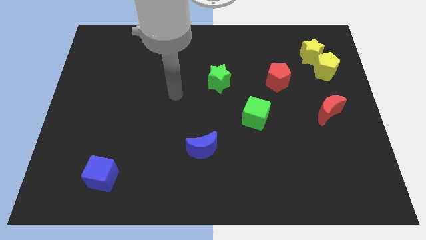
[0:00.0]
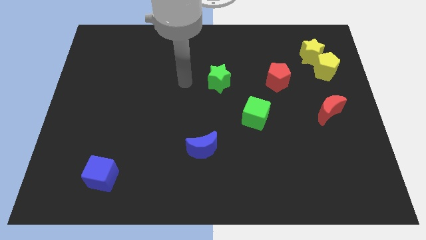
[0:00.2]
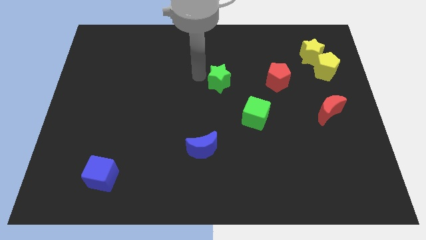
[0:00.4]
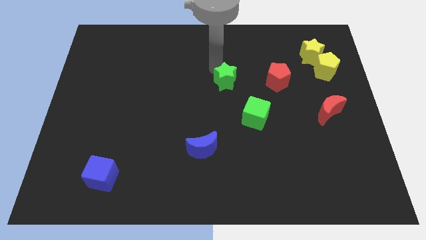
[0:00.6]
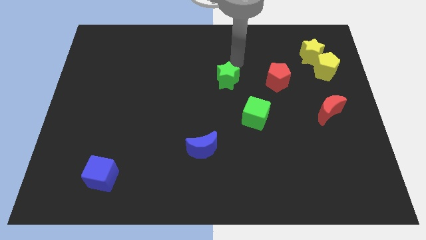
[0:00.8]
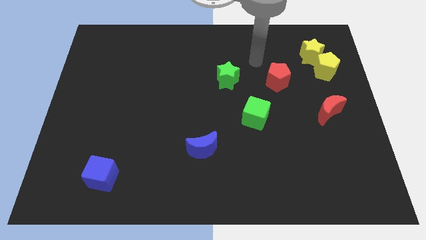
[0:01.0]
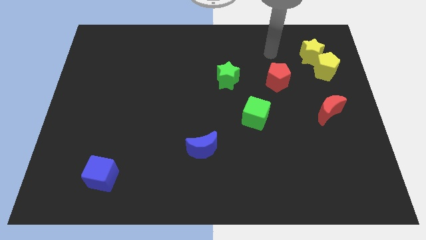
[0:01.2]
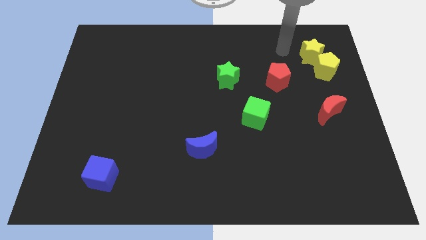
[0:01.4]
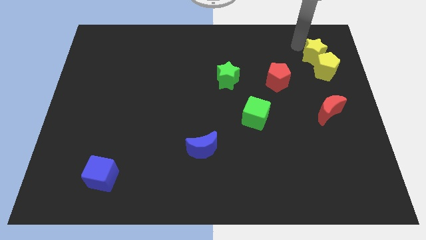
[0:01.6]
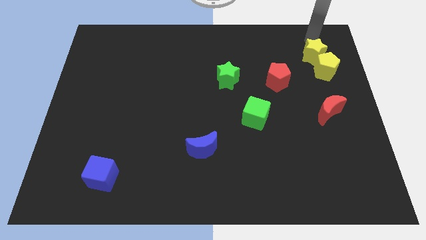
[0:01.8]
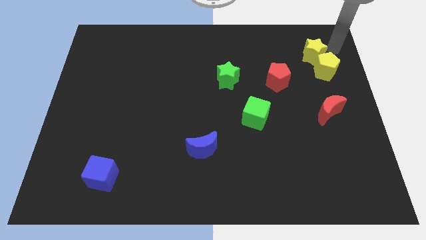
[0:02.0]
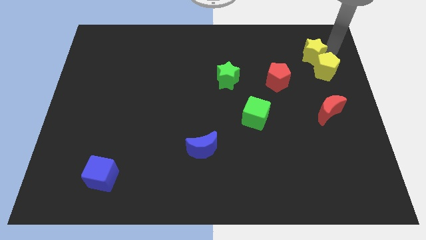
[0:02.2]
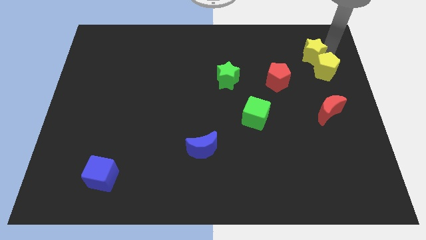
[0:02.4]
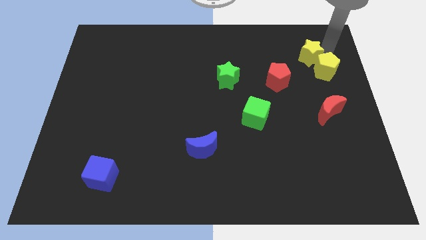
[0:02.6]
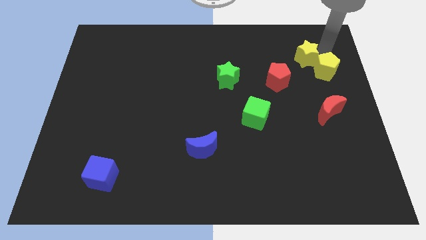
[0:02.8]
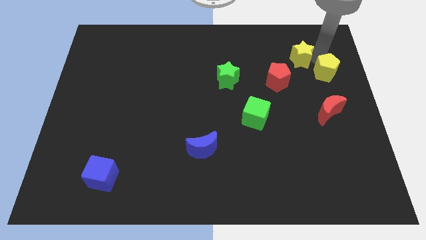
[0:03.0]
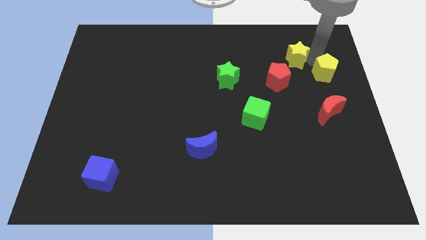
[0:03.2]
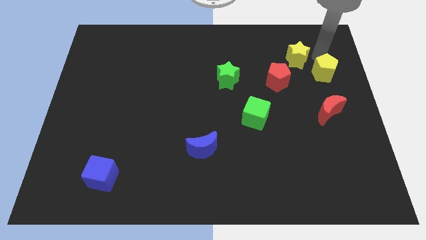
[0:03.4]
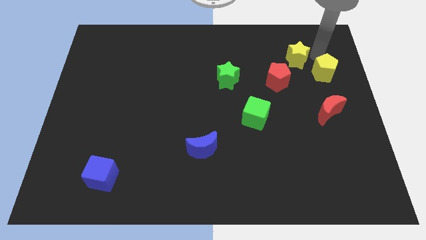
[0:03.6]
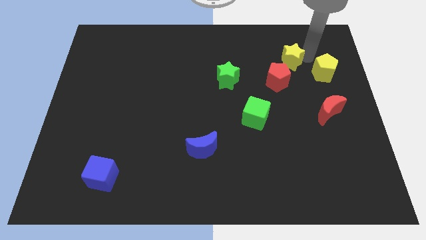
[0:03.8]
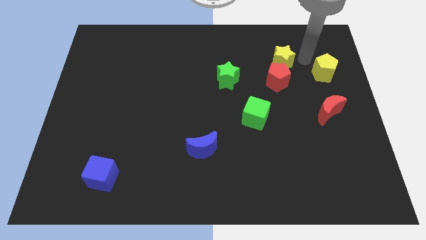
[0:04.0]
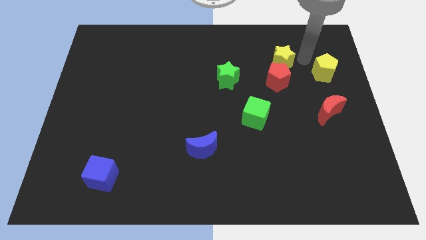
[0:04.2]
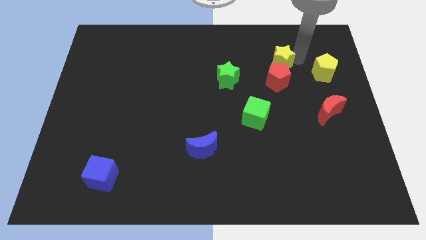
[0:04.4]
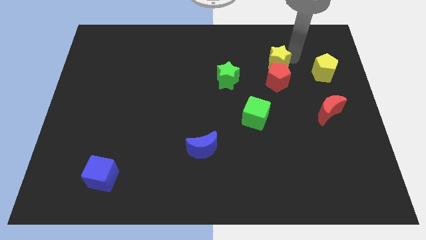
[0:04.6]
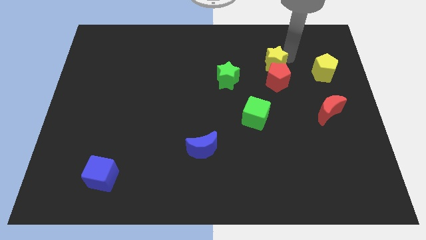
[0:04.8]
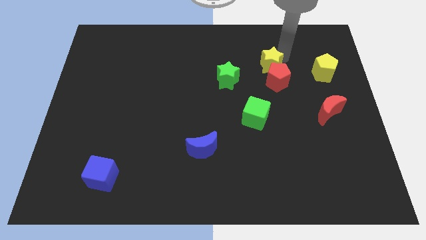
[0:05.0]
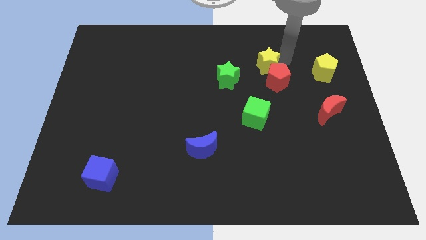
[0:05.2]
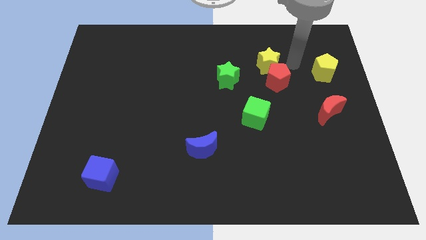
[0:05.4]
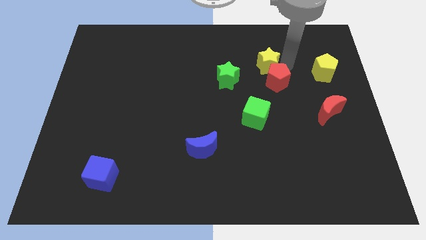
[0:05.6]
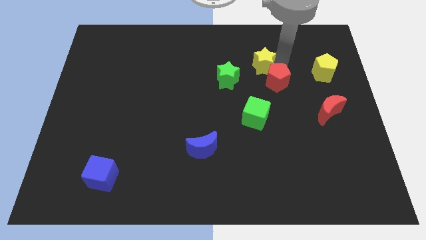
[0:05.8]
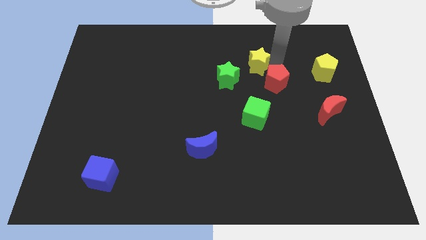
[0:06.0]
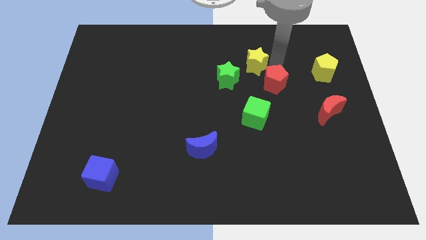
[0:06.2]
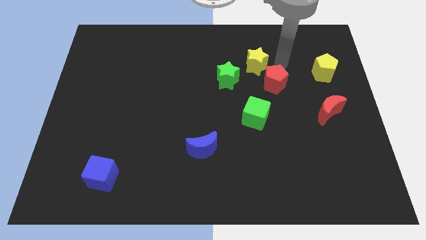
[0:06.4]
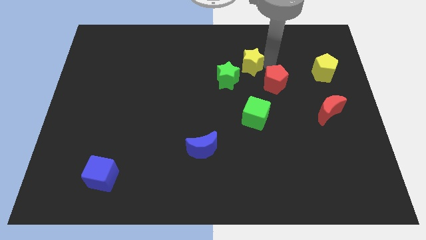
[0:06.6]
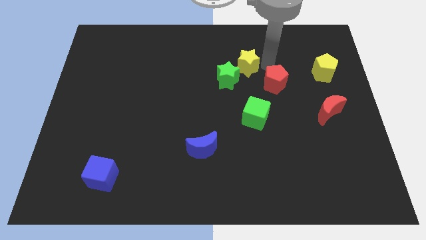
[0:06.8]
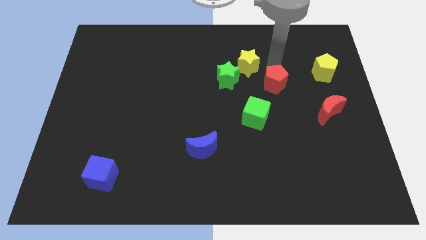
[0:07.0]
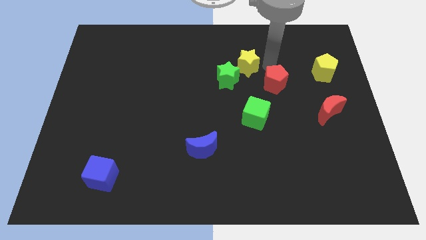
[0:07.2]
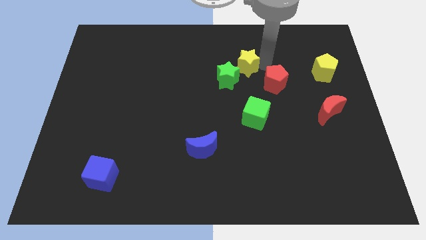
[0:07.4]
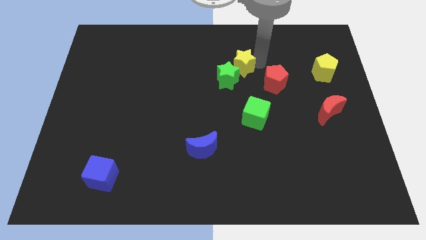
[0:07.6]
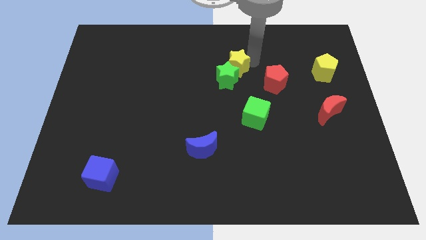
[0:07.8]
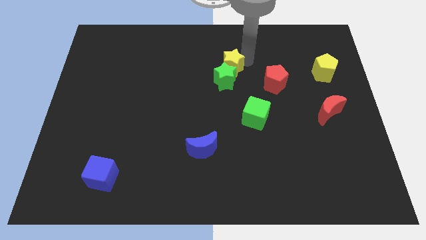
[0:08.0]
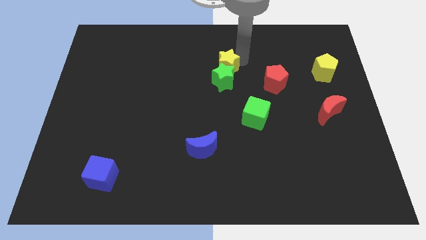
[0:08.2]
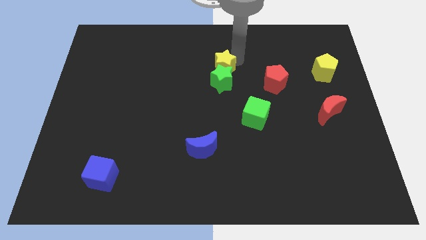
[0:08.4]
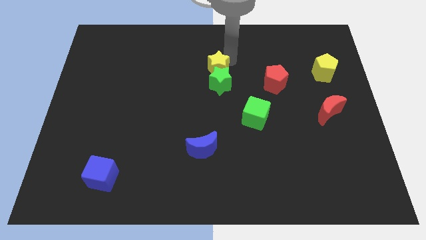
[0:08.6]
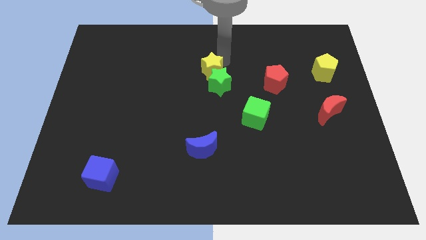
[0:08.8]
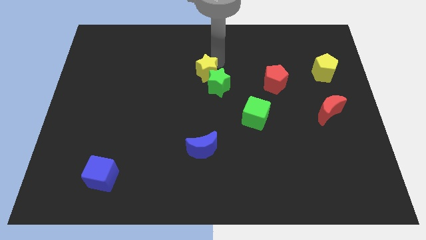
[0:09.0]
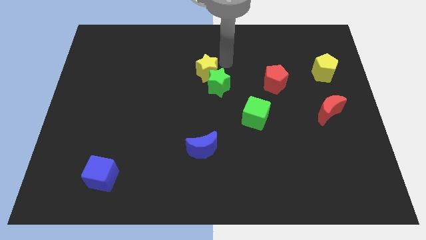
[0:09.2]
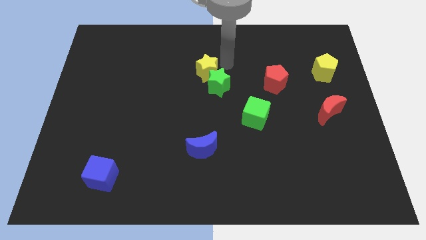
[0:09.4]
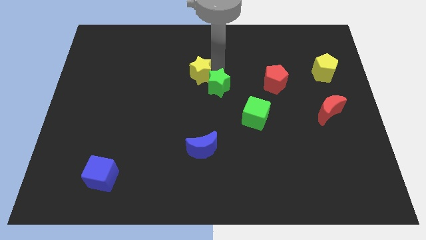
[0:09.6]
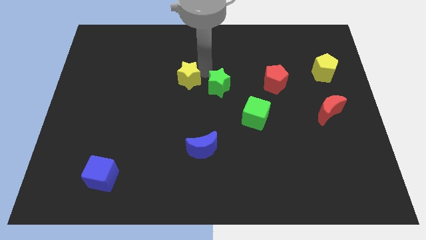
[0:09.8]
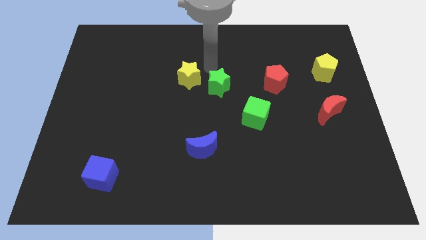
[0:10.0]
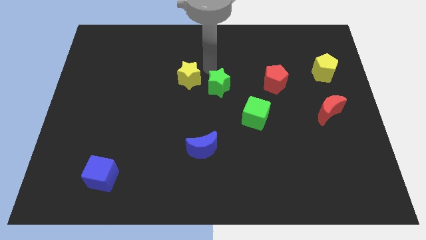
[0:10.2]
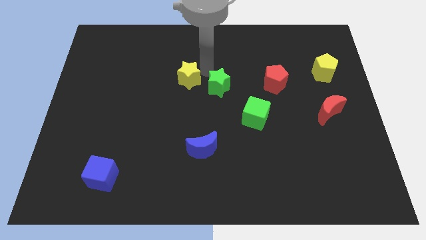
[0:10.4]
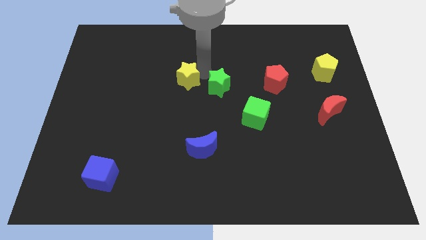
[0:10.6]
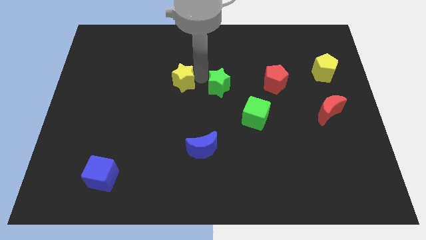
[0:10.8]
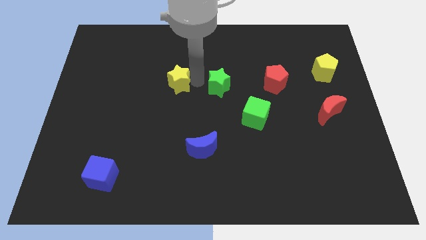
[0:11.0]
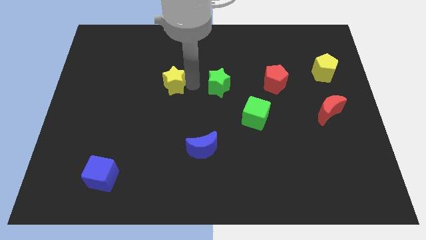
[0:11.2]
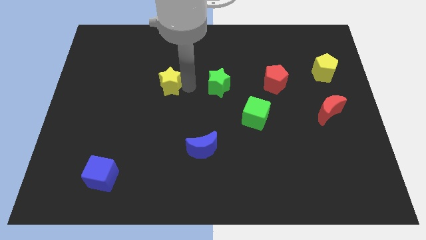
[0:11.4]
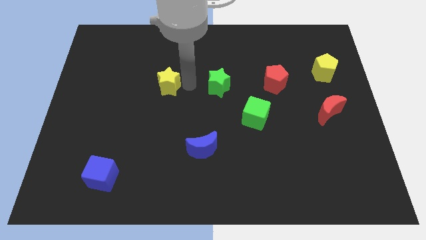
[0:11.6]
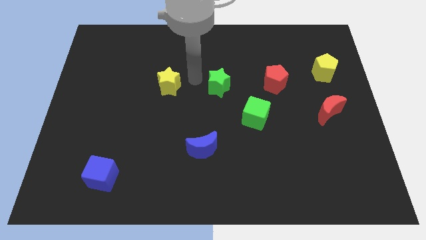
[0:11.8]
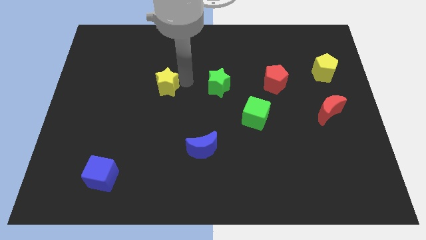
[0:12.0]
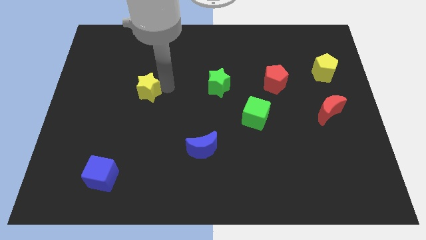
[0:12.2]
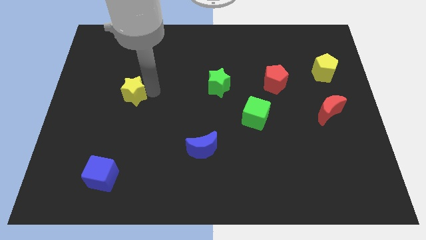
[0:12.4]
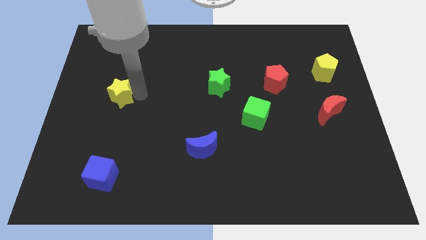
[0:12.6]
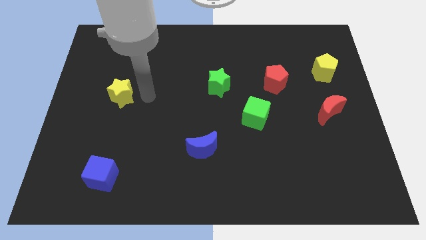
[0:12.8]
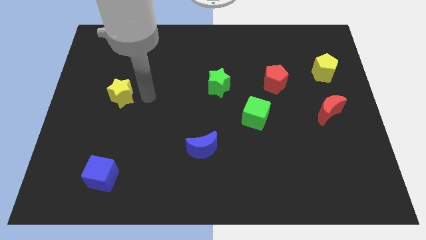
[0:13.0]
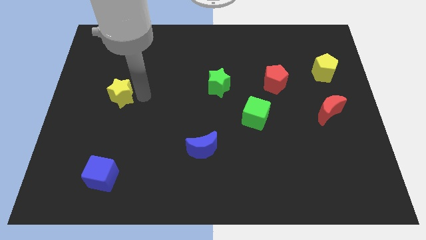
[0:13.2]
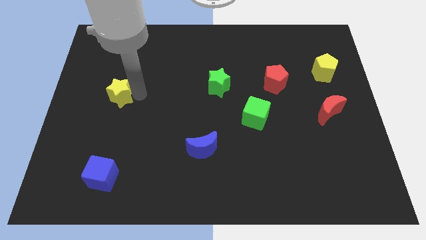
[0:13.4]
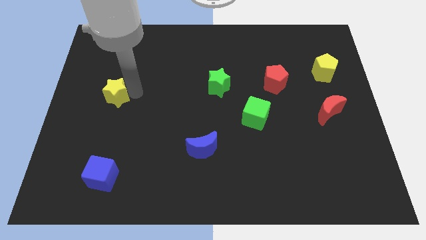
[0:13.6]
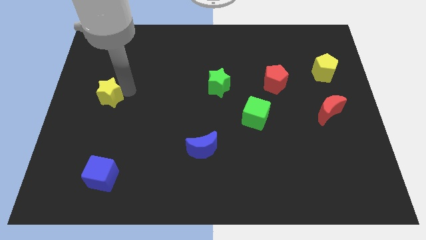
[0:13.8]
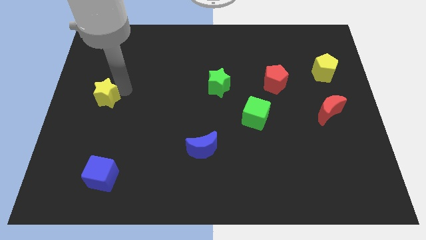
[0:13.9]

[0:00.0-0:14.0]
move the yellow star to the left side of the board
